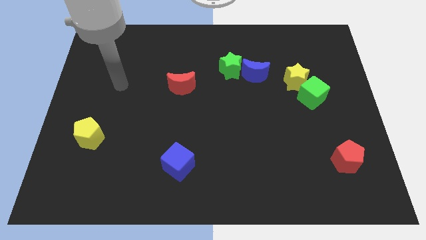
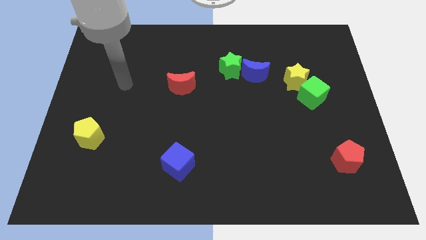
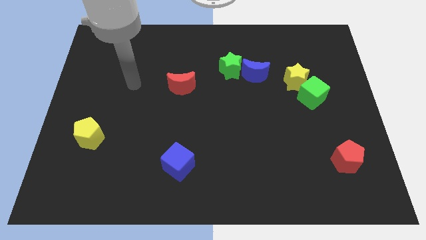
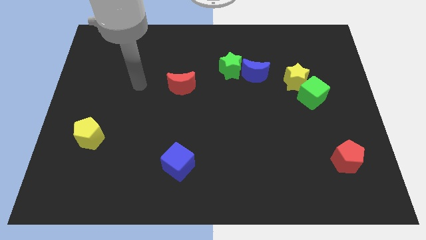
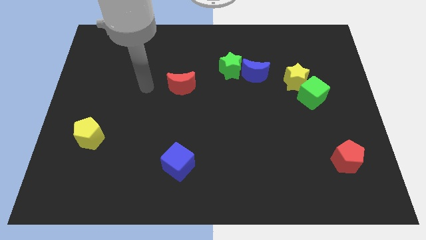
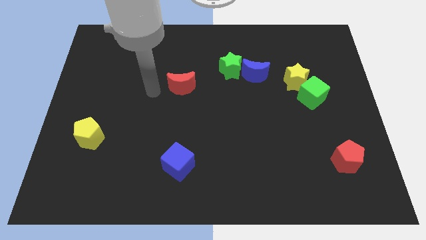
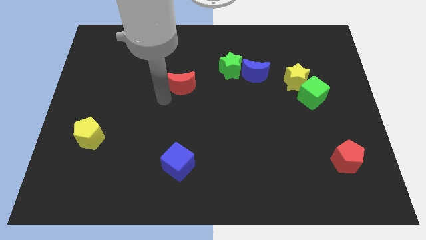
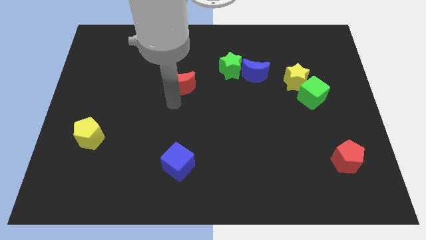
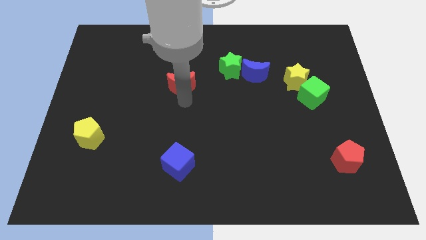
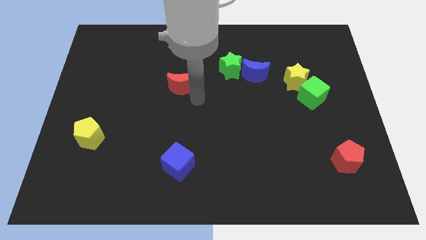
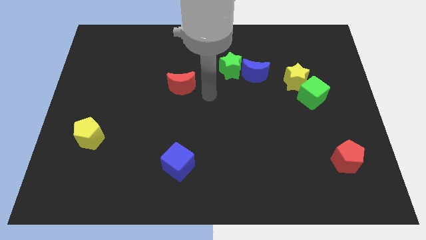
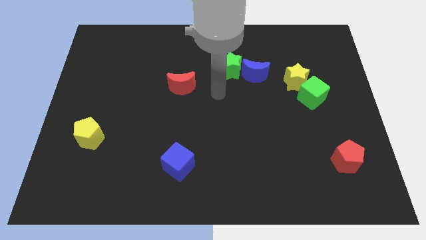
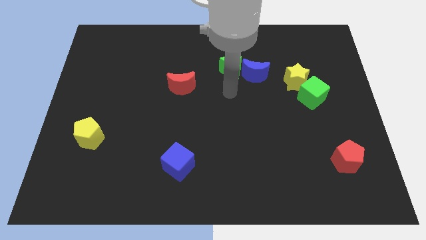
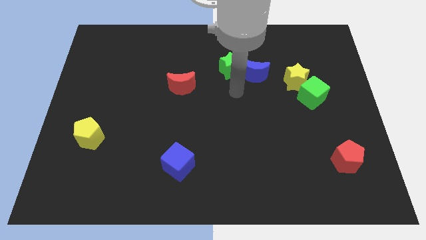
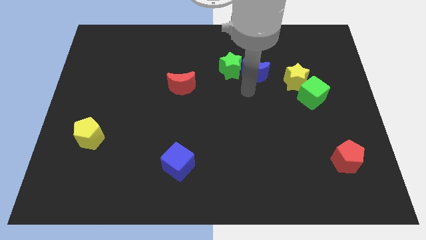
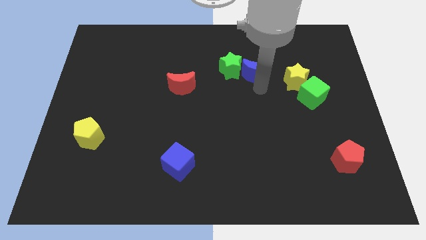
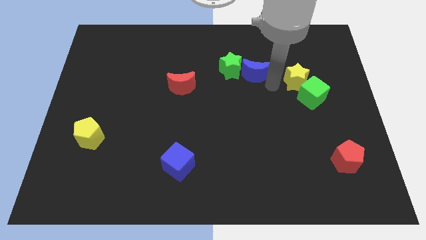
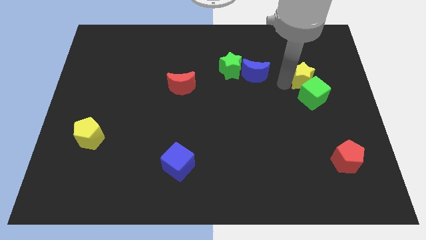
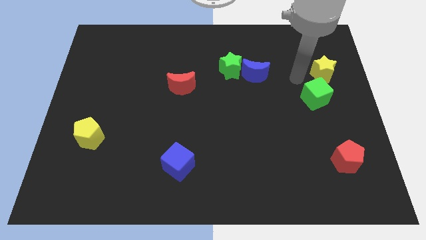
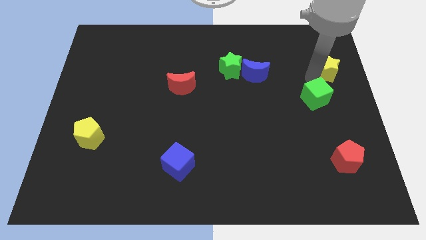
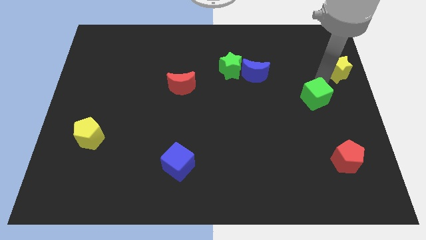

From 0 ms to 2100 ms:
move the green cube away from the yellow star

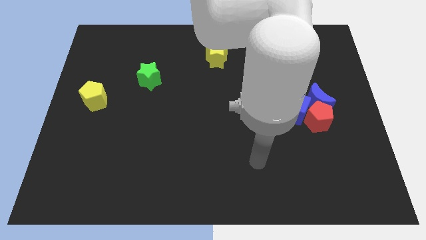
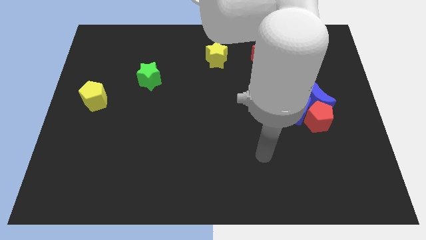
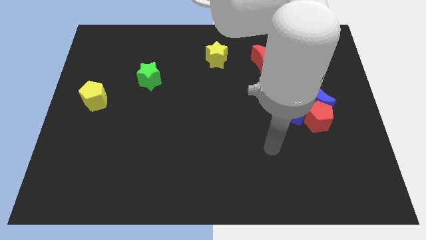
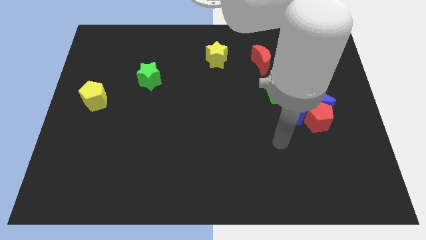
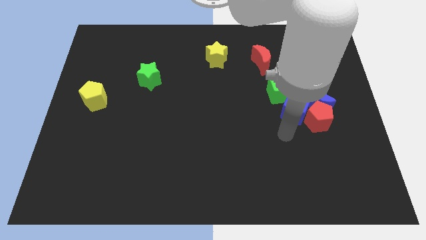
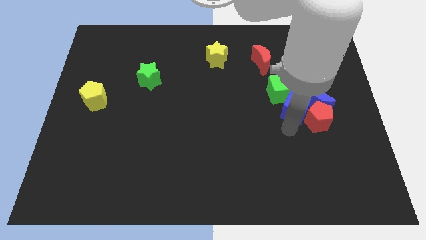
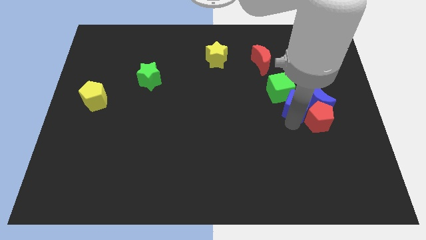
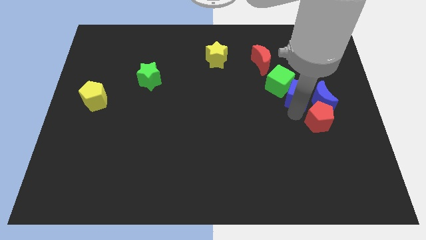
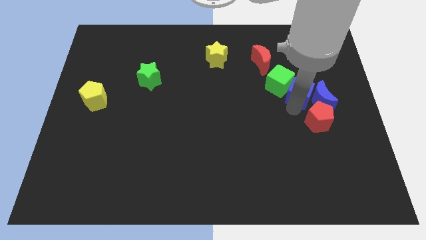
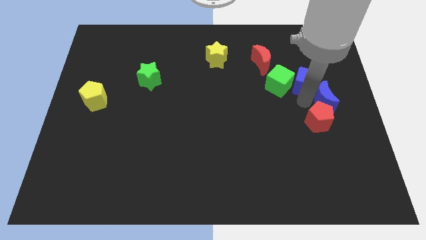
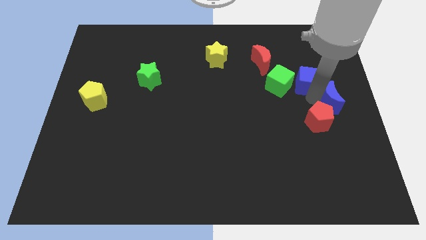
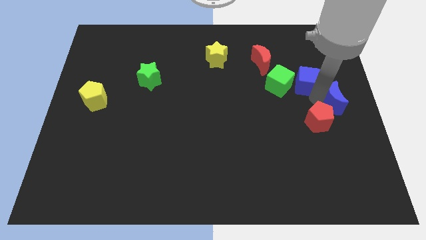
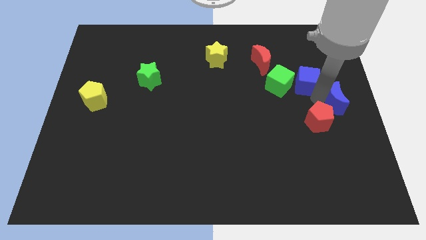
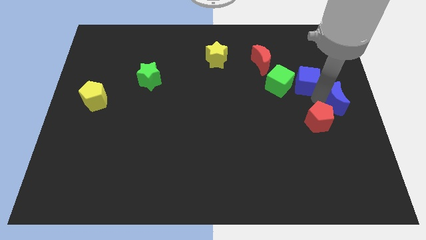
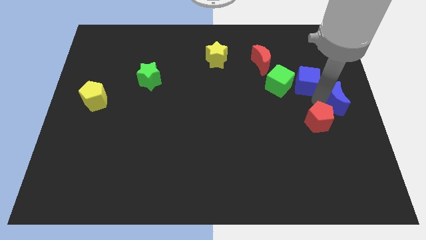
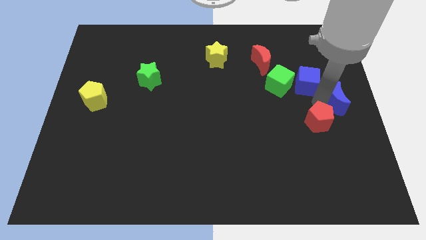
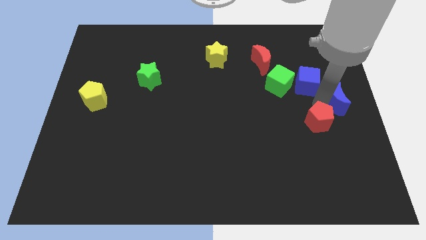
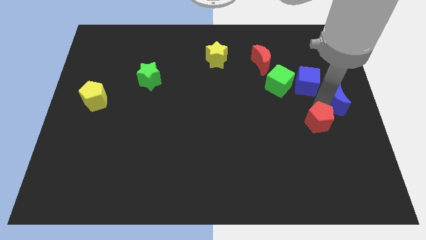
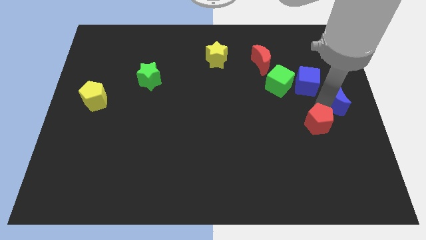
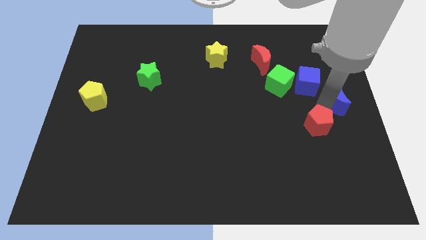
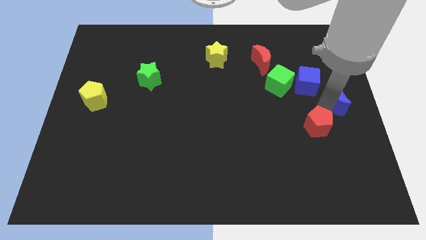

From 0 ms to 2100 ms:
separate the red pentagon from the blue moon and blue cube

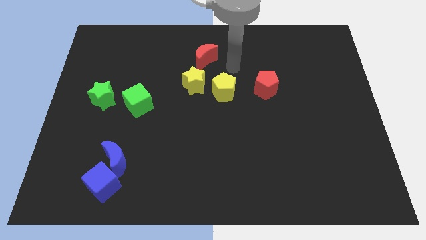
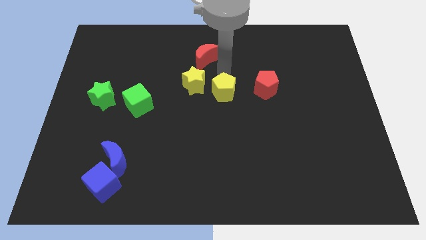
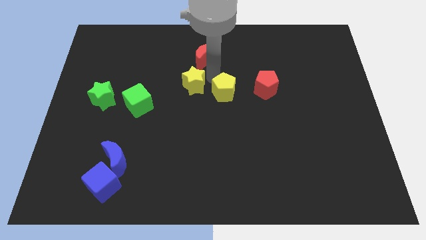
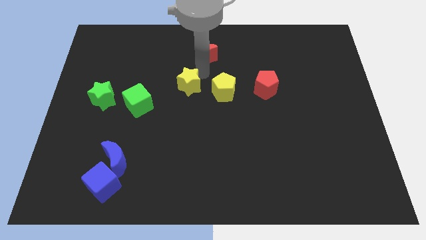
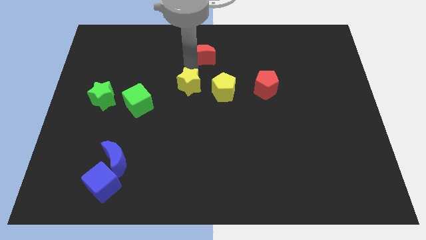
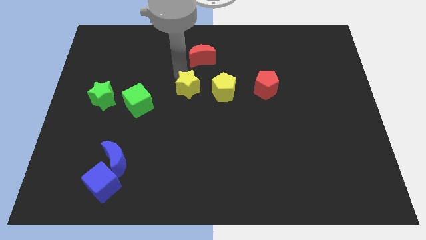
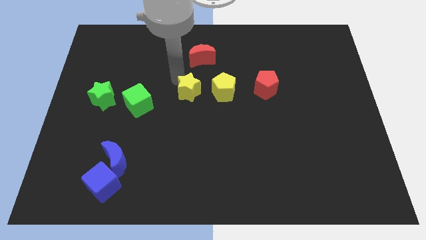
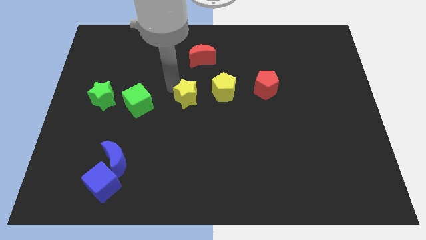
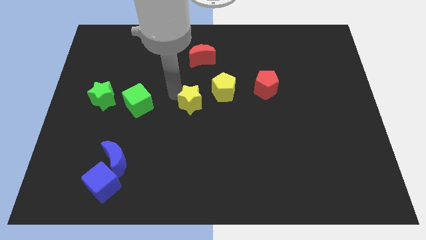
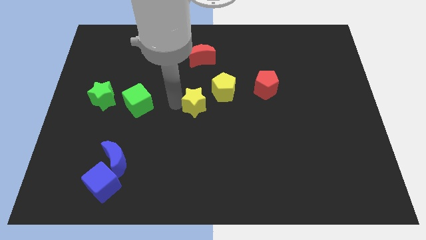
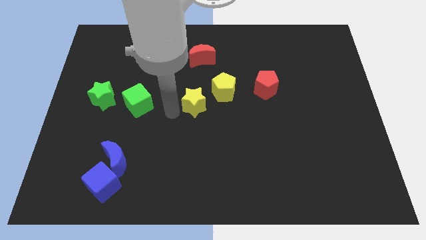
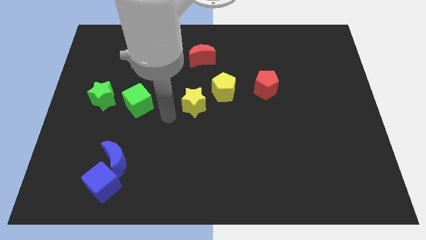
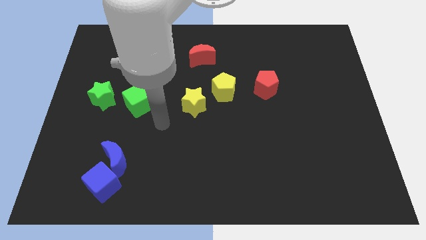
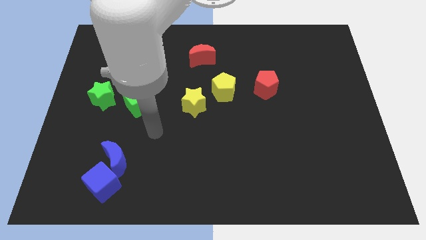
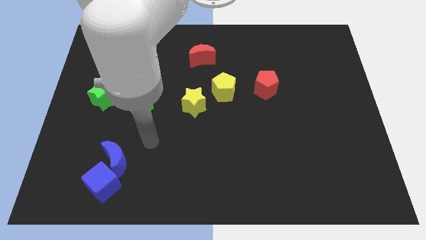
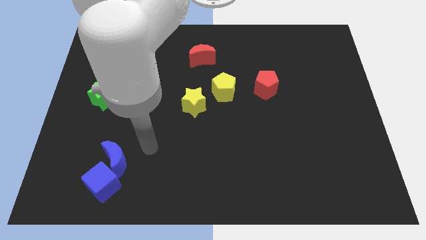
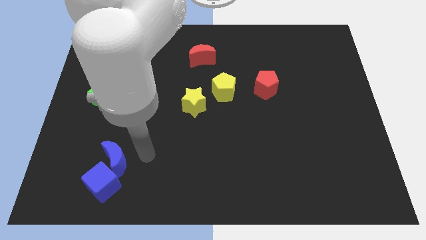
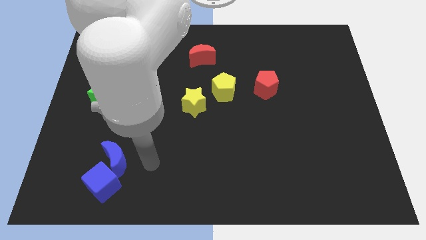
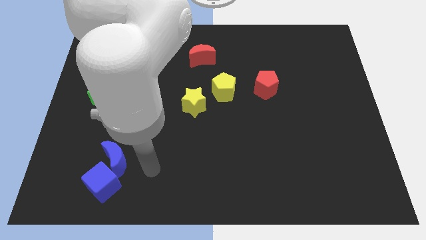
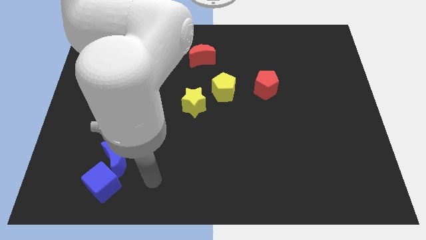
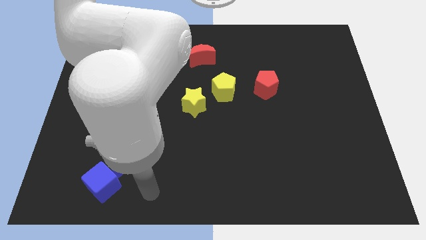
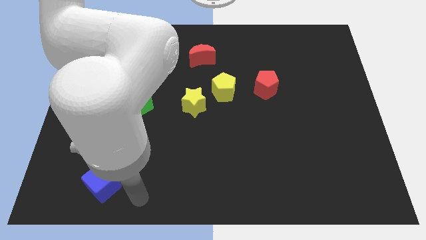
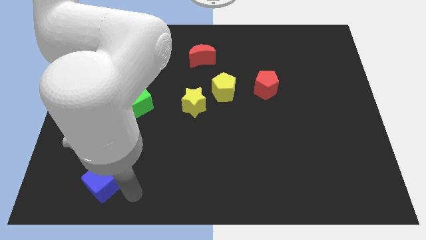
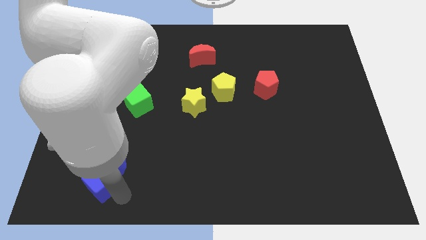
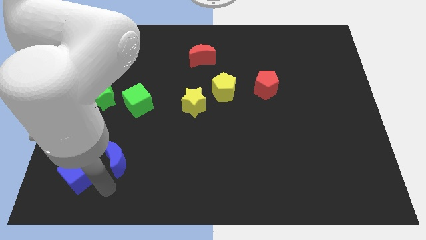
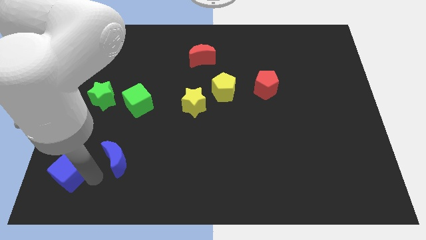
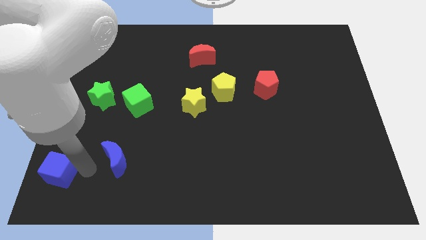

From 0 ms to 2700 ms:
move the blue moon away from the blue cube

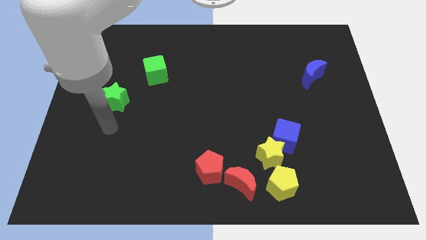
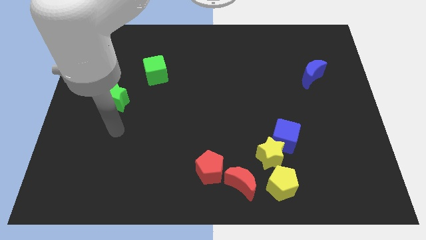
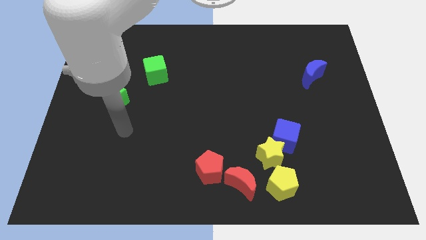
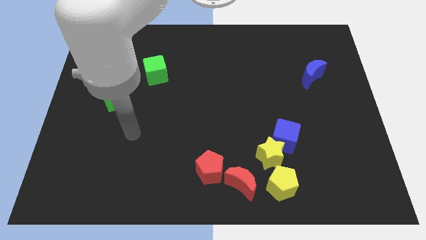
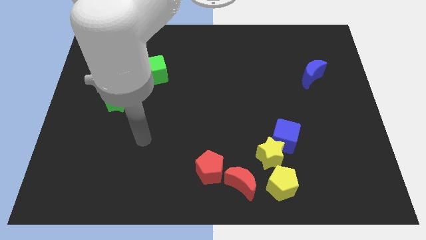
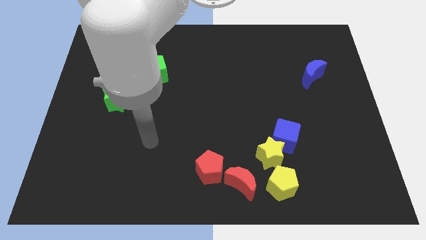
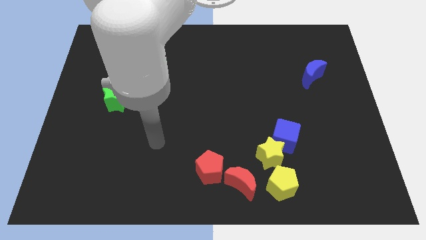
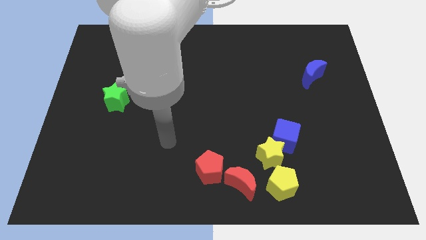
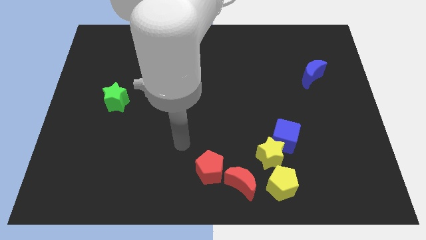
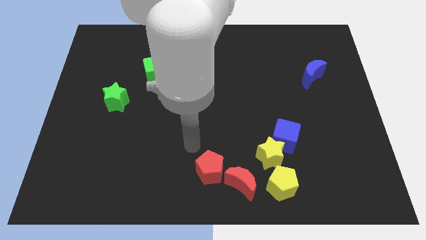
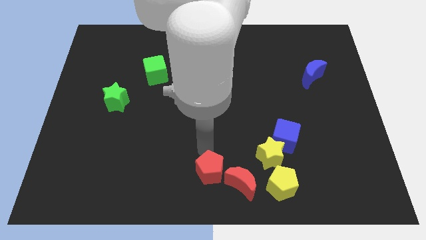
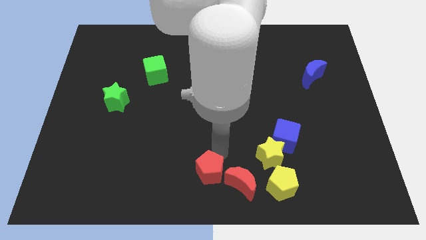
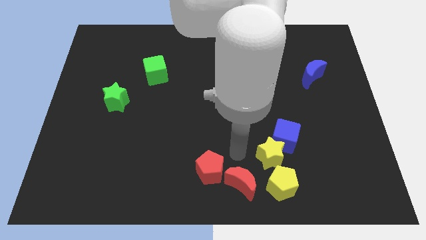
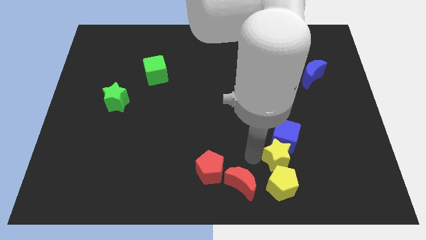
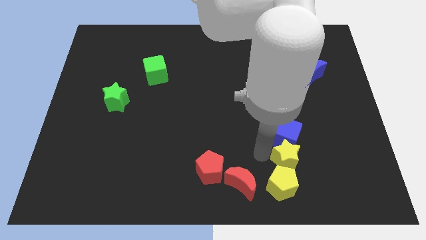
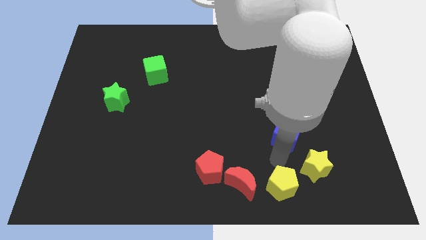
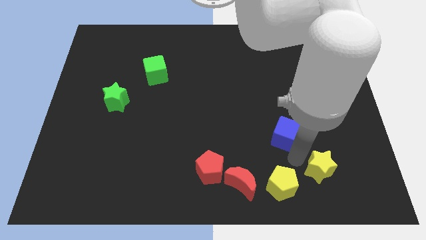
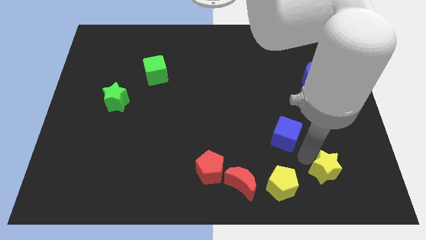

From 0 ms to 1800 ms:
move the blue cube away from the yellow star

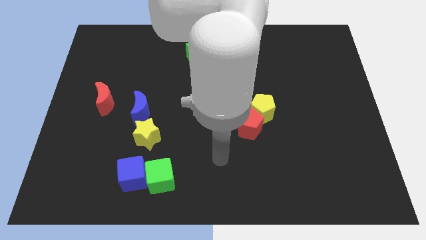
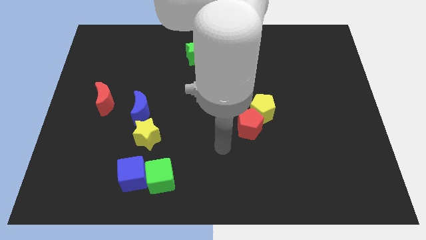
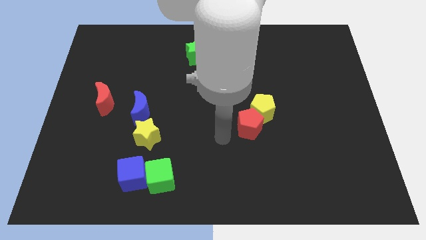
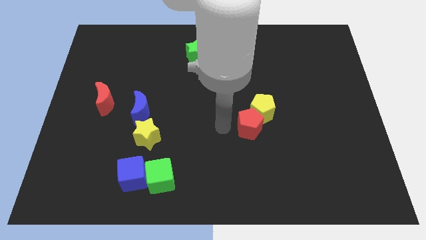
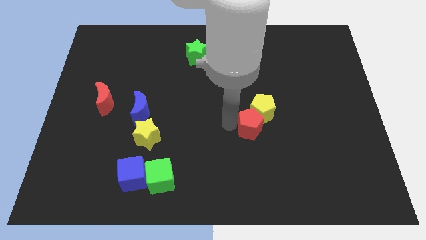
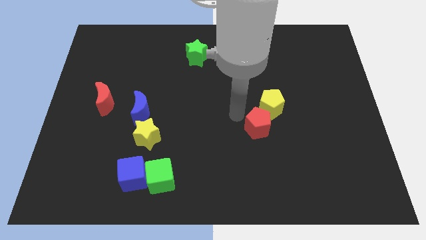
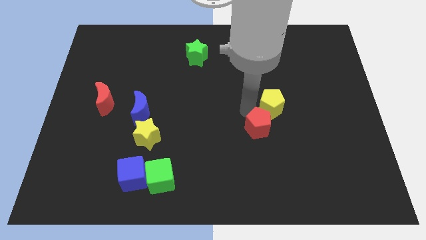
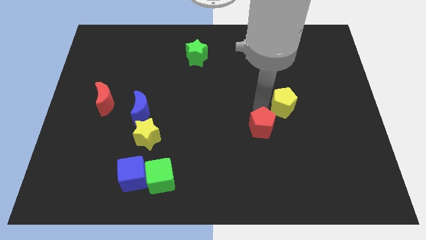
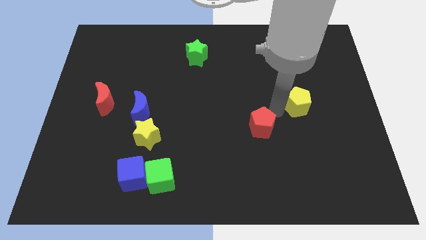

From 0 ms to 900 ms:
move the red pentagon away from the yellow pentagon
